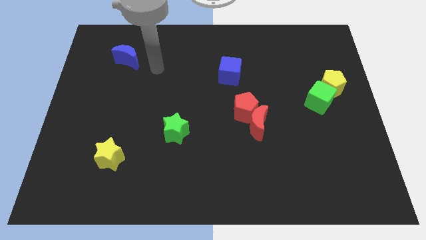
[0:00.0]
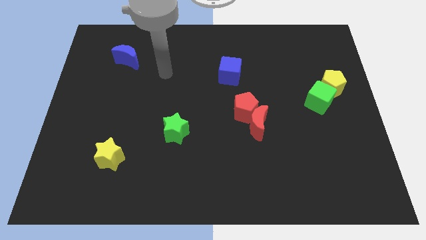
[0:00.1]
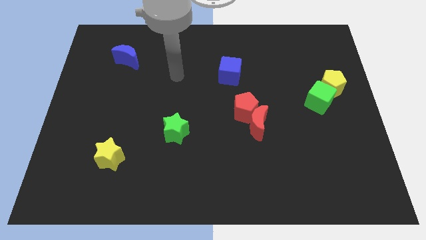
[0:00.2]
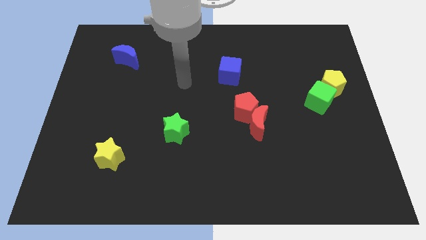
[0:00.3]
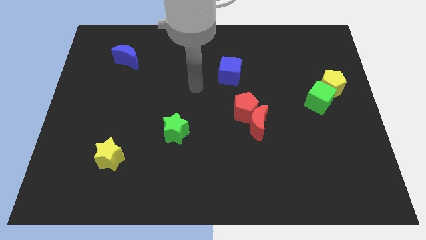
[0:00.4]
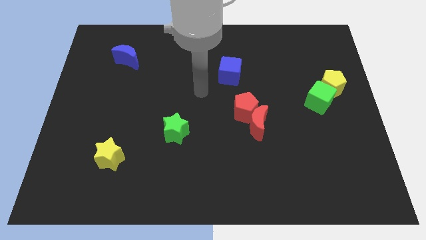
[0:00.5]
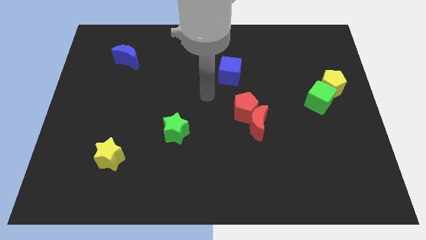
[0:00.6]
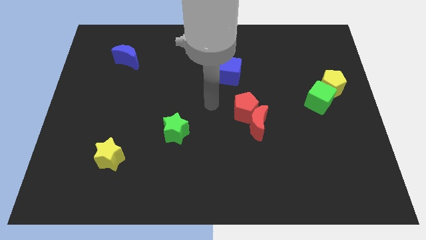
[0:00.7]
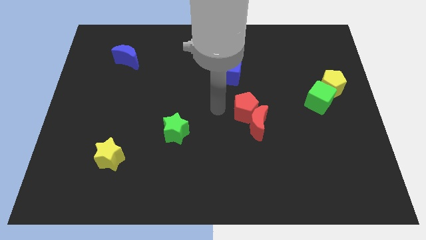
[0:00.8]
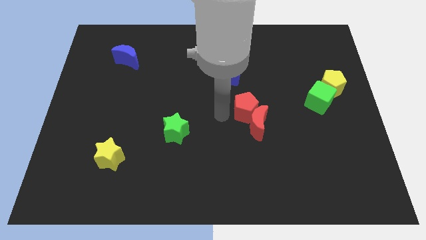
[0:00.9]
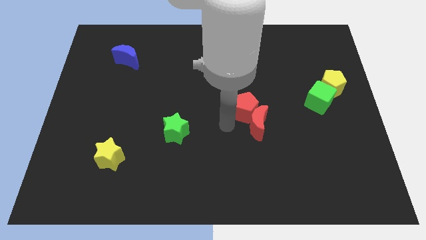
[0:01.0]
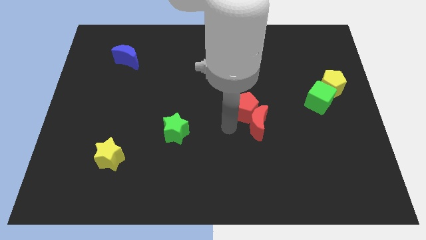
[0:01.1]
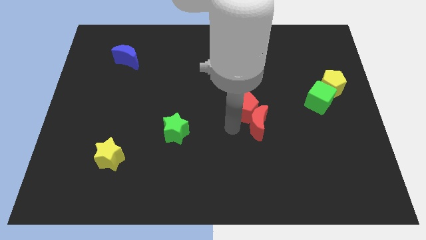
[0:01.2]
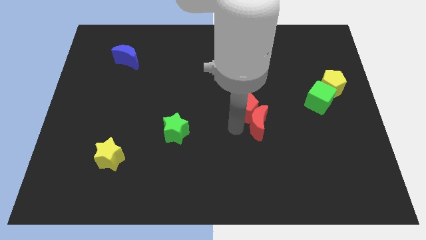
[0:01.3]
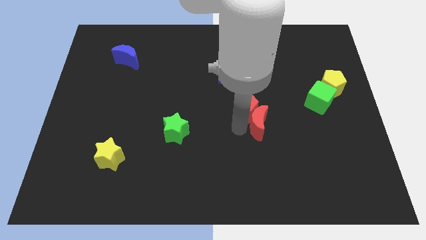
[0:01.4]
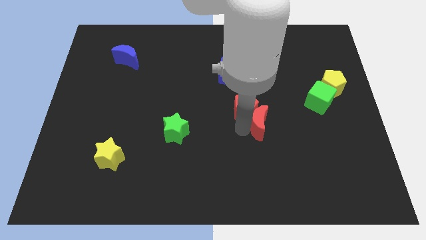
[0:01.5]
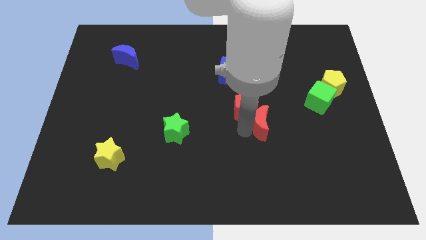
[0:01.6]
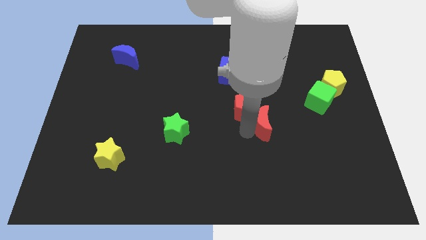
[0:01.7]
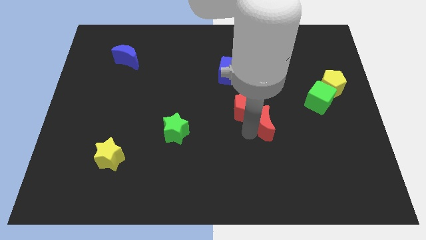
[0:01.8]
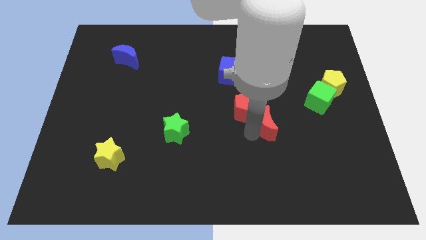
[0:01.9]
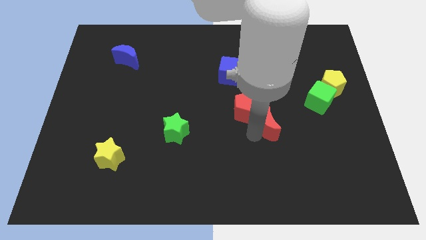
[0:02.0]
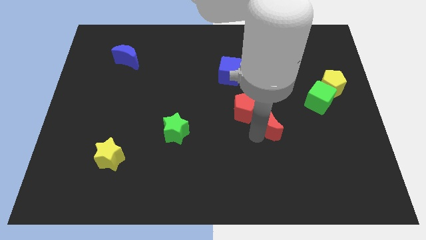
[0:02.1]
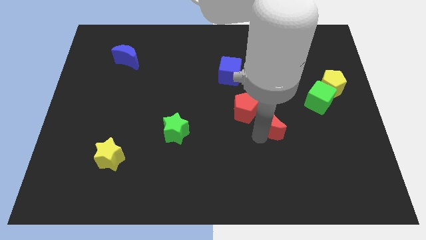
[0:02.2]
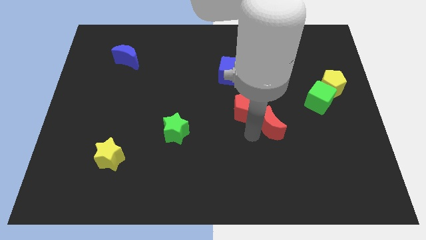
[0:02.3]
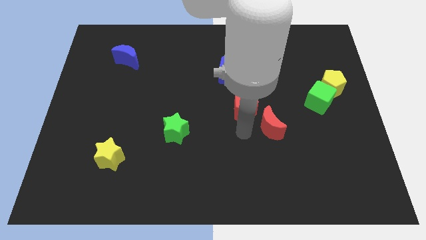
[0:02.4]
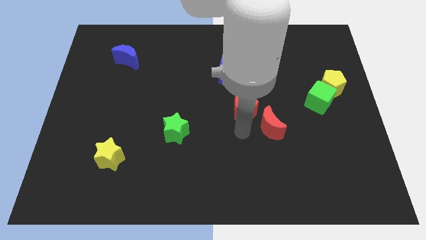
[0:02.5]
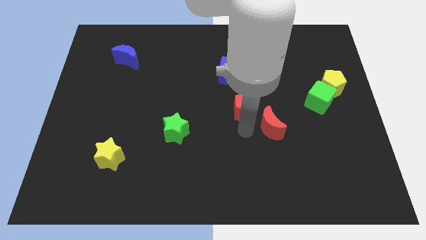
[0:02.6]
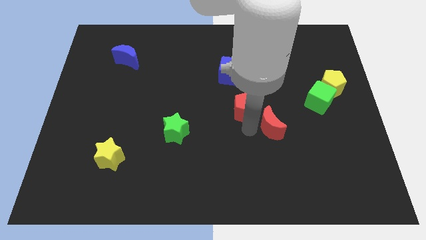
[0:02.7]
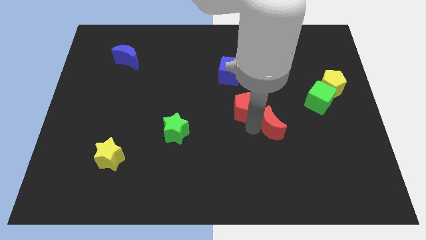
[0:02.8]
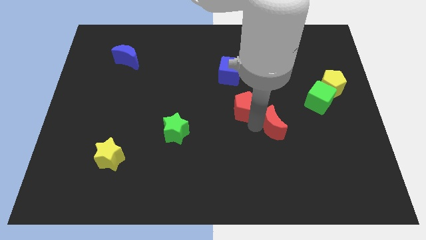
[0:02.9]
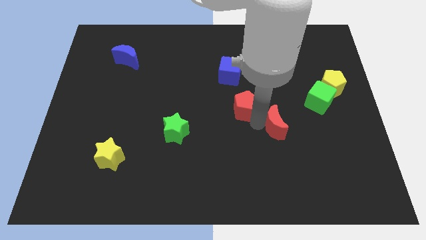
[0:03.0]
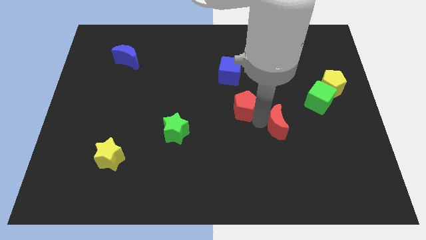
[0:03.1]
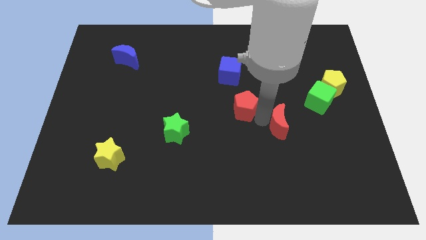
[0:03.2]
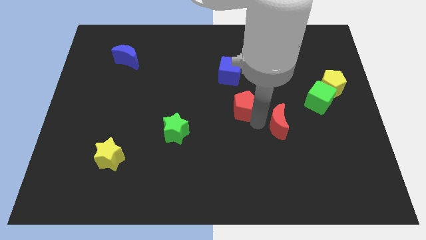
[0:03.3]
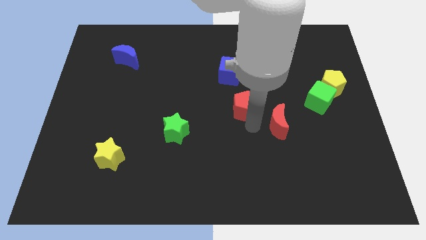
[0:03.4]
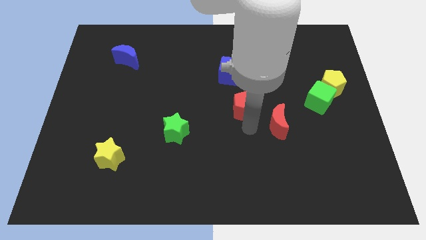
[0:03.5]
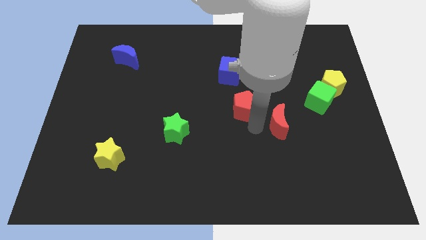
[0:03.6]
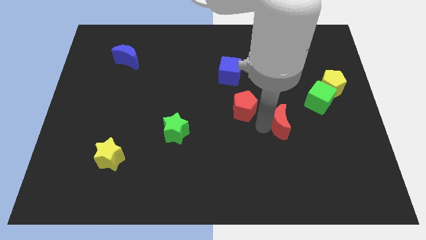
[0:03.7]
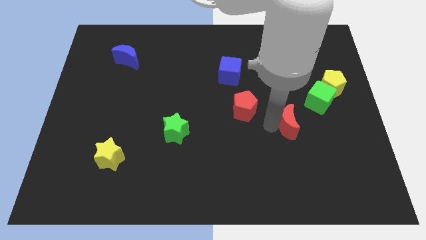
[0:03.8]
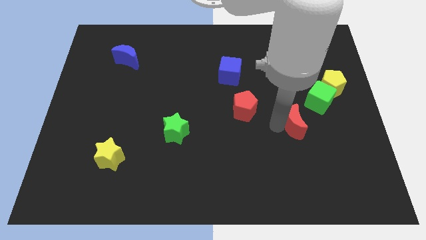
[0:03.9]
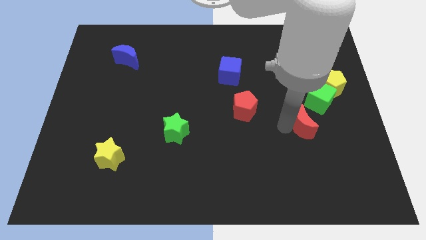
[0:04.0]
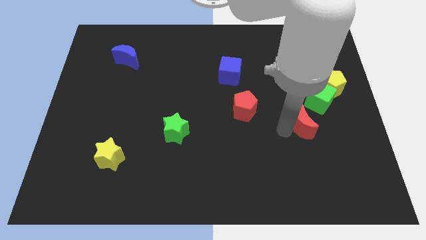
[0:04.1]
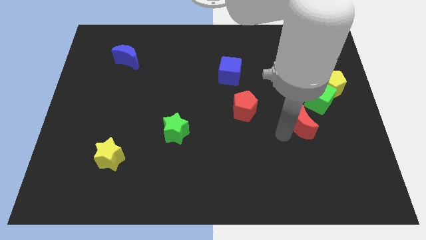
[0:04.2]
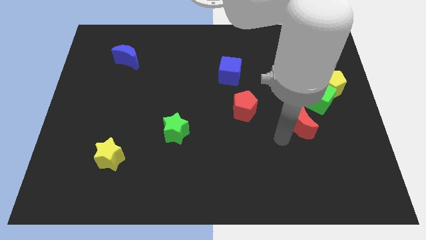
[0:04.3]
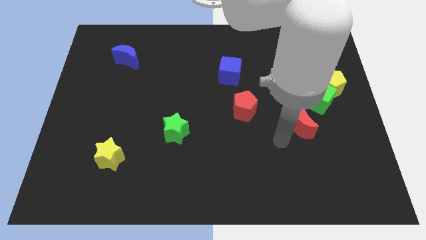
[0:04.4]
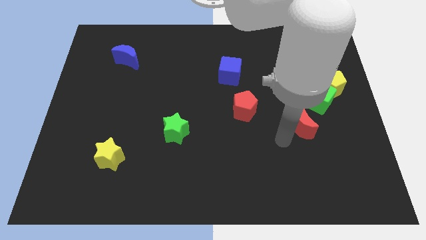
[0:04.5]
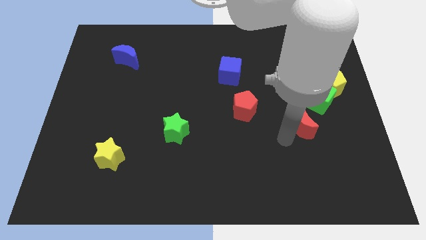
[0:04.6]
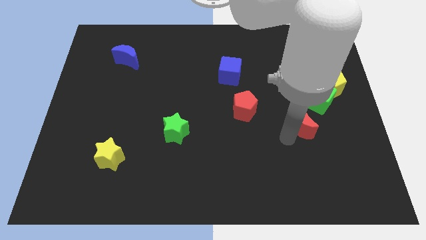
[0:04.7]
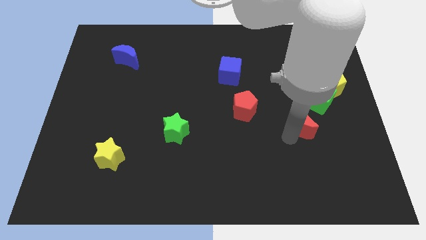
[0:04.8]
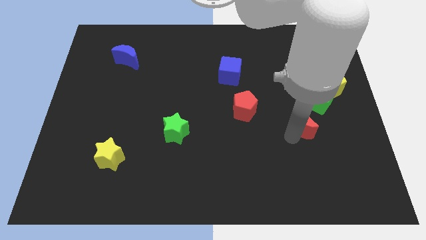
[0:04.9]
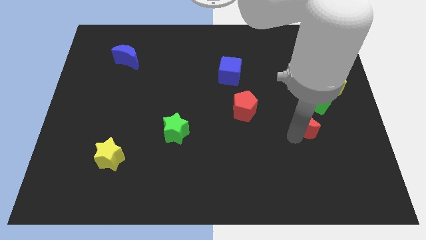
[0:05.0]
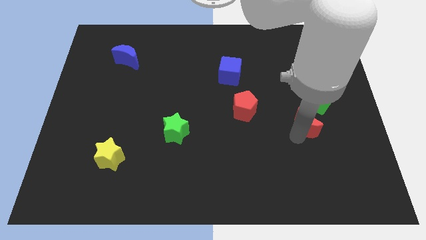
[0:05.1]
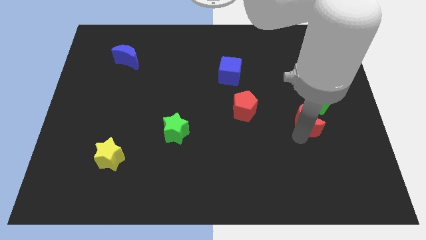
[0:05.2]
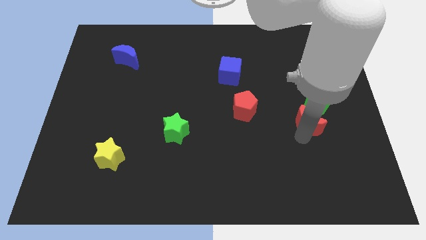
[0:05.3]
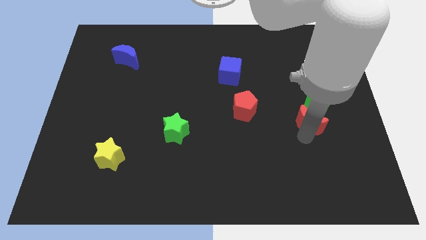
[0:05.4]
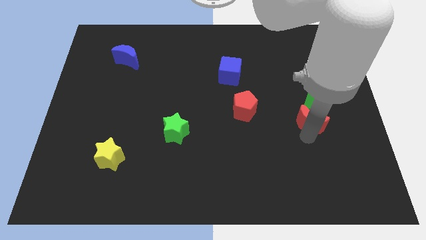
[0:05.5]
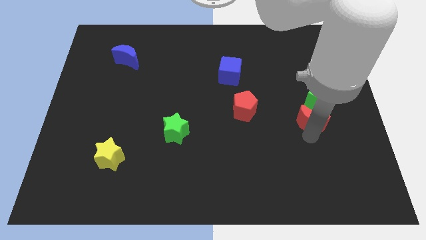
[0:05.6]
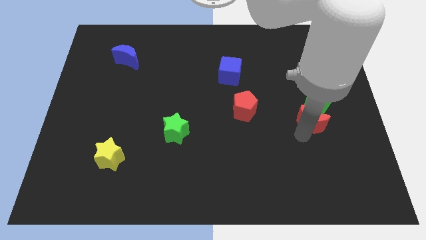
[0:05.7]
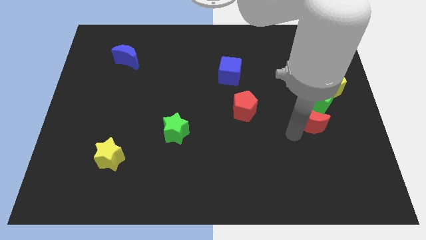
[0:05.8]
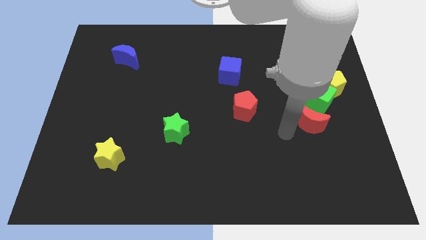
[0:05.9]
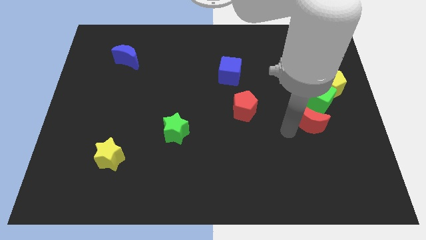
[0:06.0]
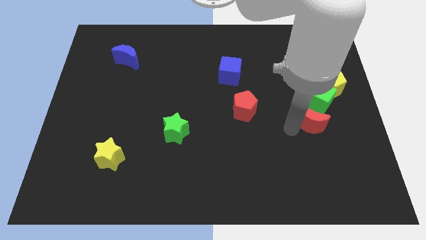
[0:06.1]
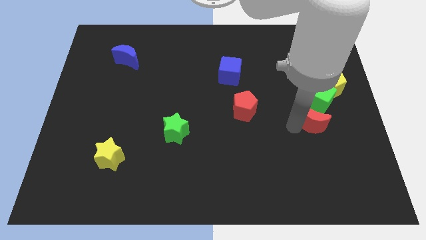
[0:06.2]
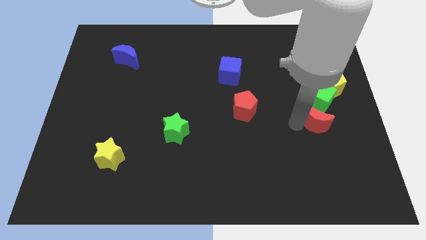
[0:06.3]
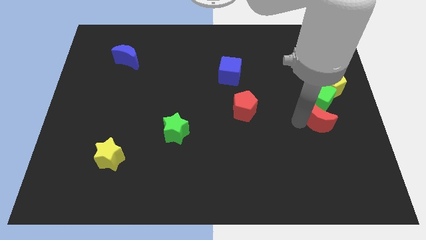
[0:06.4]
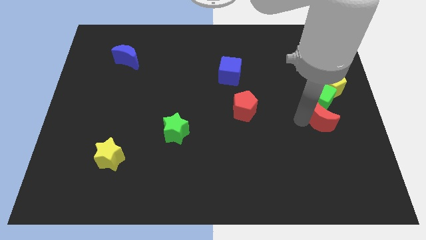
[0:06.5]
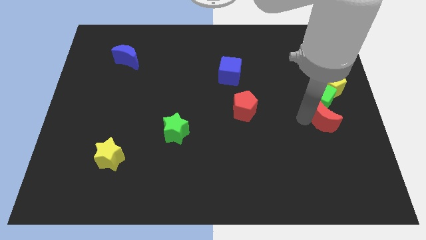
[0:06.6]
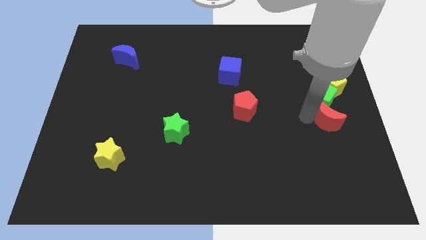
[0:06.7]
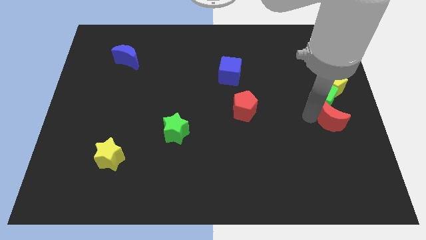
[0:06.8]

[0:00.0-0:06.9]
put the red moon to the right side of the board
